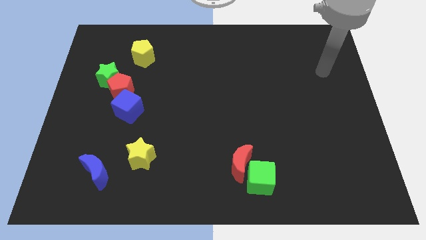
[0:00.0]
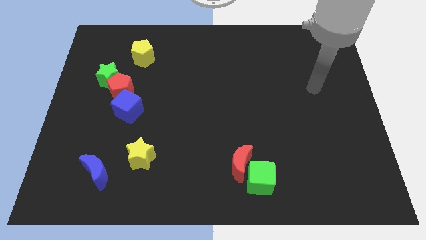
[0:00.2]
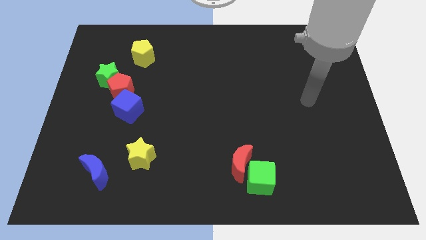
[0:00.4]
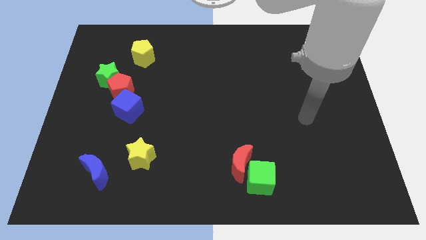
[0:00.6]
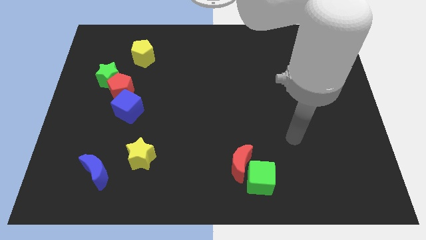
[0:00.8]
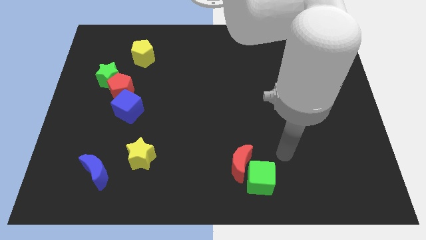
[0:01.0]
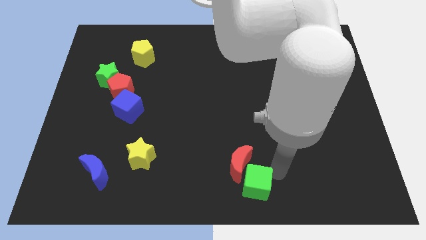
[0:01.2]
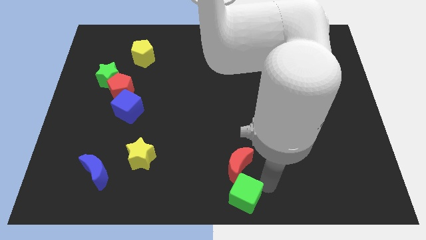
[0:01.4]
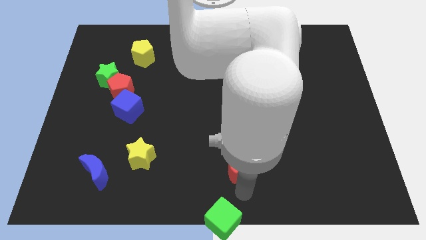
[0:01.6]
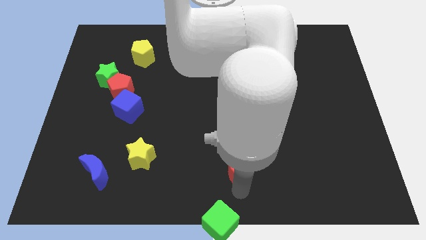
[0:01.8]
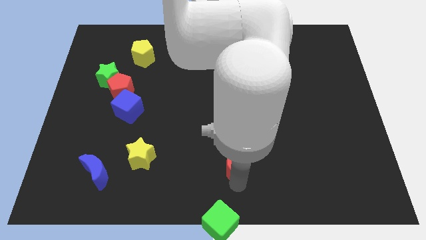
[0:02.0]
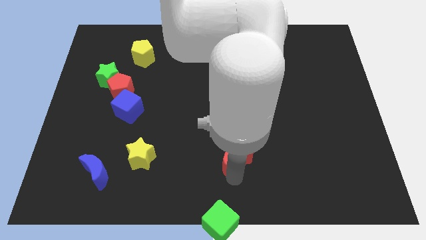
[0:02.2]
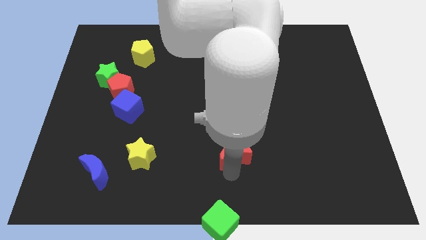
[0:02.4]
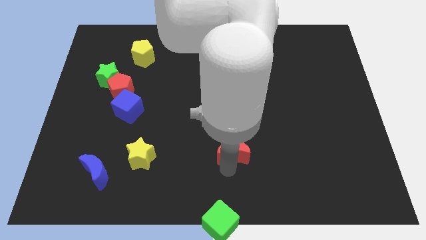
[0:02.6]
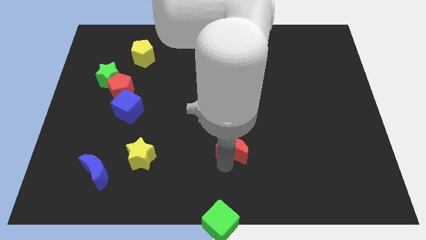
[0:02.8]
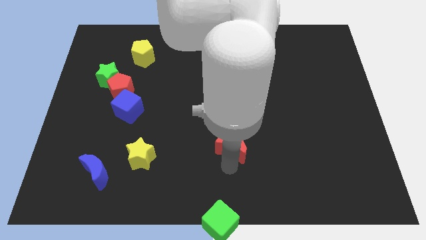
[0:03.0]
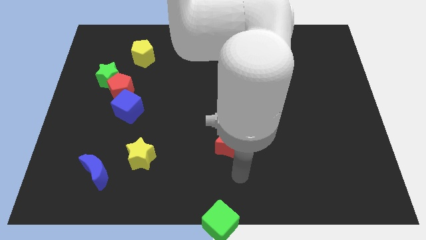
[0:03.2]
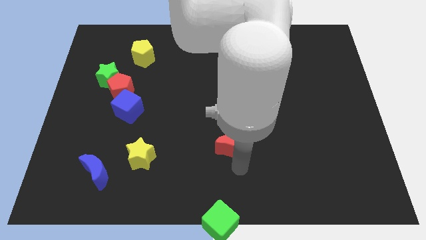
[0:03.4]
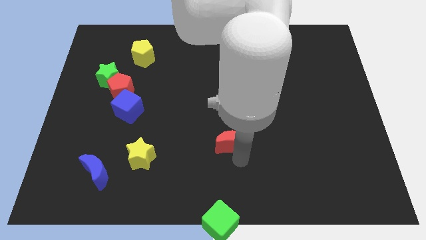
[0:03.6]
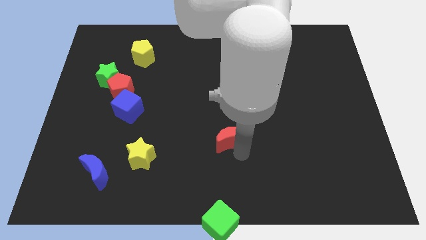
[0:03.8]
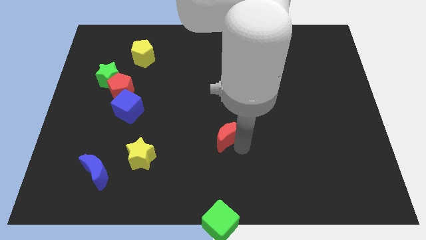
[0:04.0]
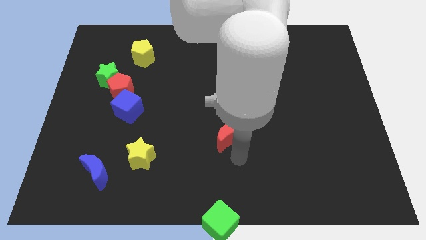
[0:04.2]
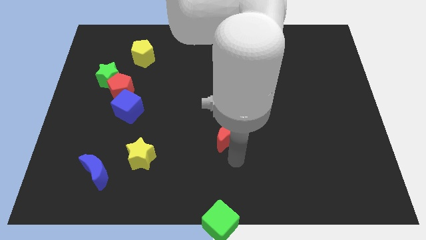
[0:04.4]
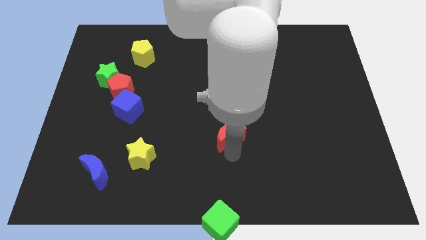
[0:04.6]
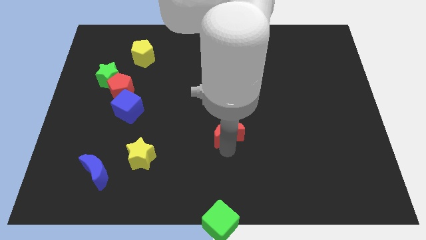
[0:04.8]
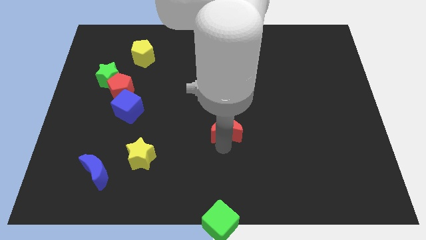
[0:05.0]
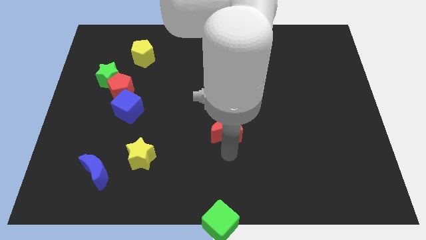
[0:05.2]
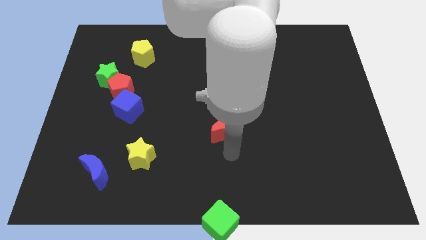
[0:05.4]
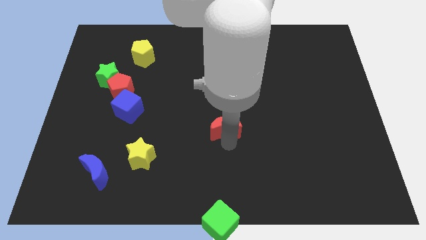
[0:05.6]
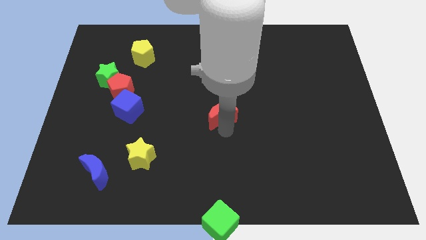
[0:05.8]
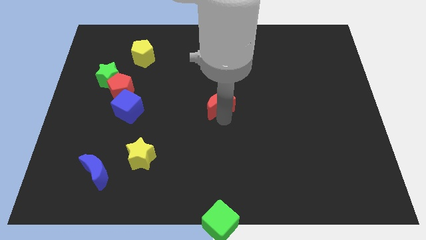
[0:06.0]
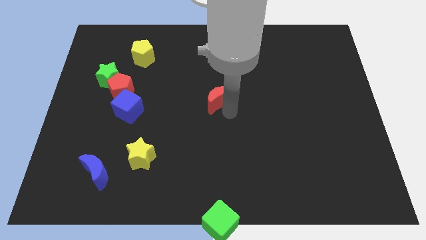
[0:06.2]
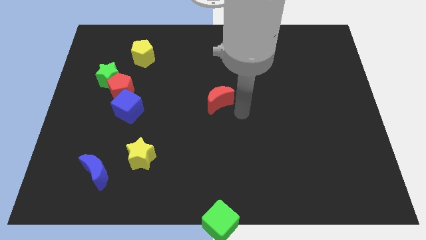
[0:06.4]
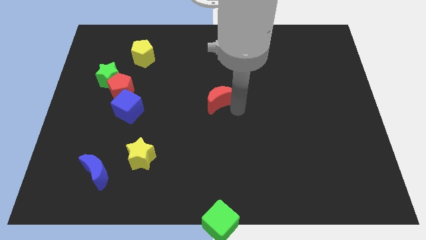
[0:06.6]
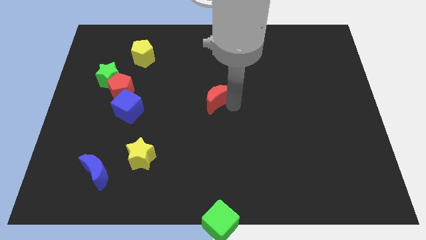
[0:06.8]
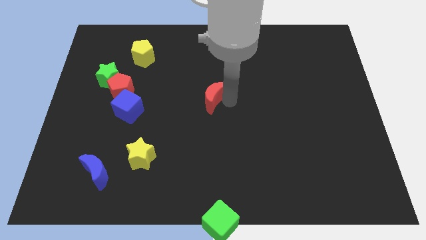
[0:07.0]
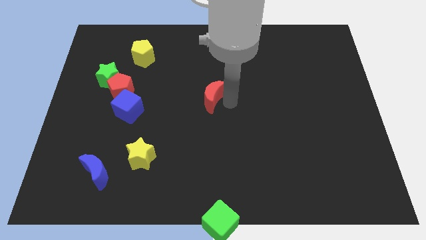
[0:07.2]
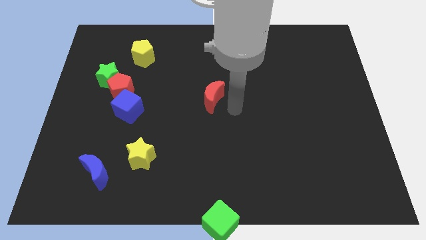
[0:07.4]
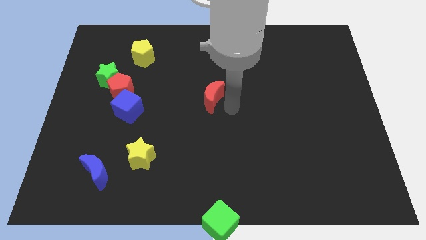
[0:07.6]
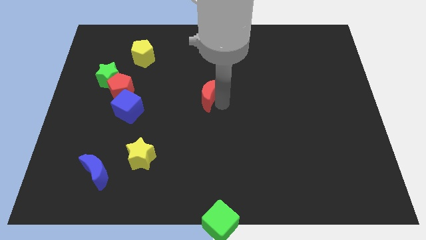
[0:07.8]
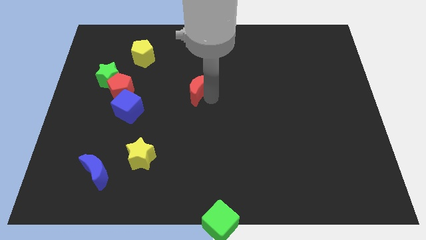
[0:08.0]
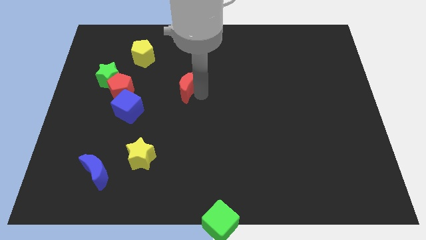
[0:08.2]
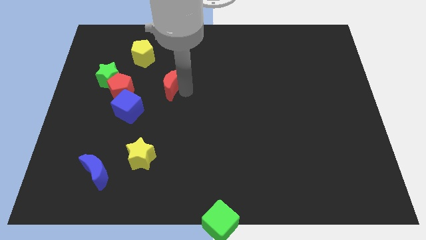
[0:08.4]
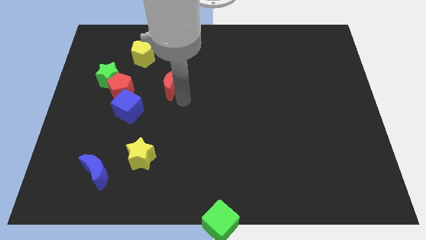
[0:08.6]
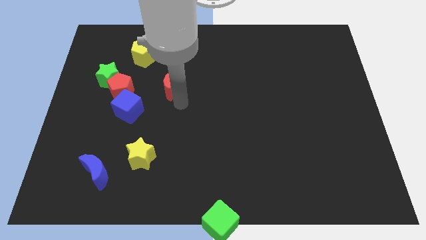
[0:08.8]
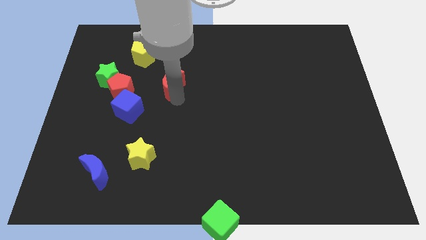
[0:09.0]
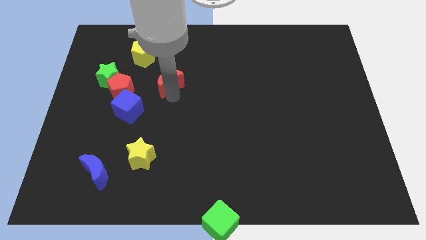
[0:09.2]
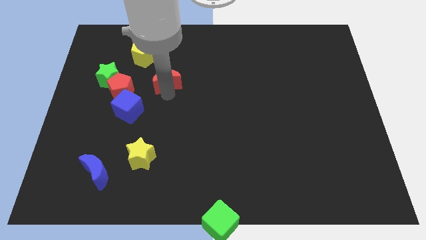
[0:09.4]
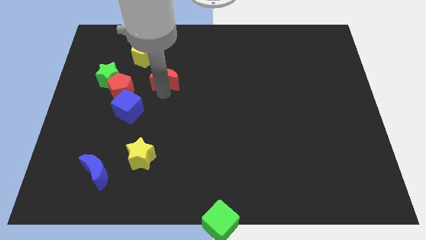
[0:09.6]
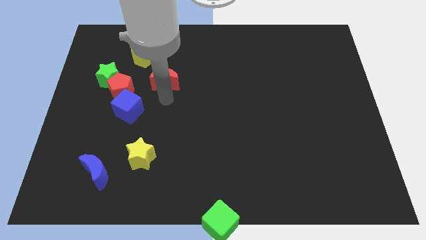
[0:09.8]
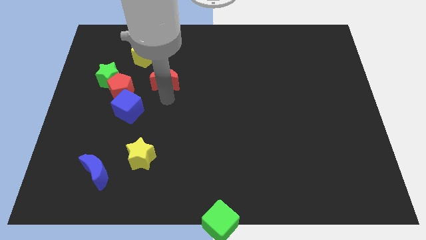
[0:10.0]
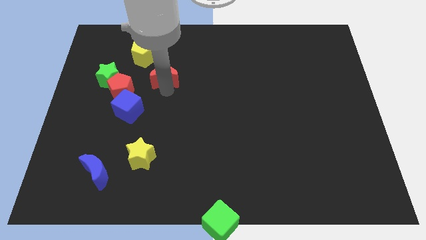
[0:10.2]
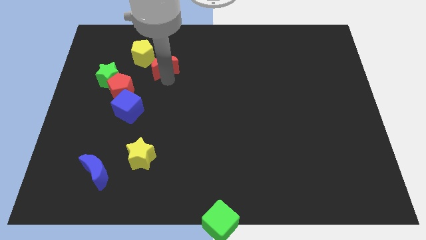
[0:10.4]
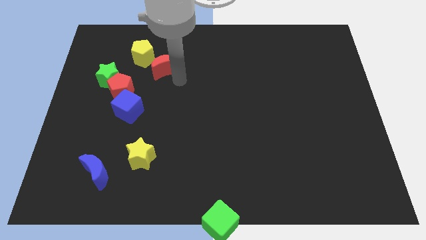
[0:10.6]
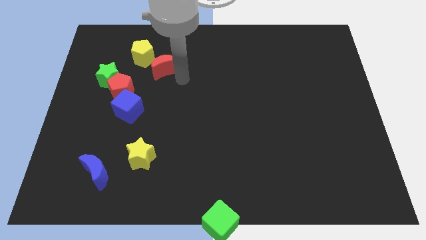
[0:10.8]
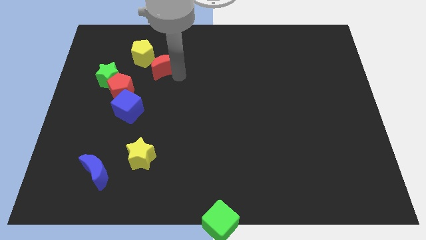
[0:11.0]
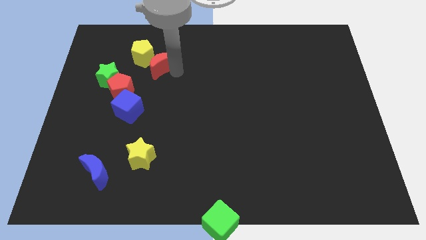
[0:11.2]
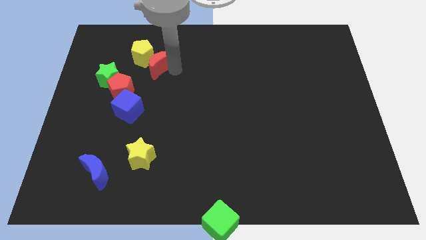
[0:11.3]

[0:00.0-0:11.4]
slide the red moon towards the yellow pentagon
